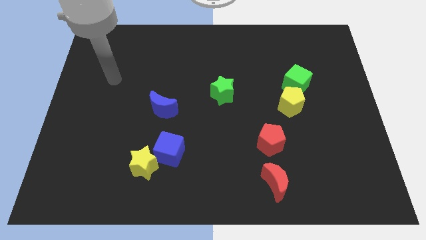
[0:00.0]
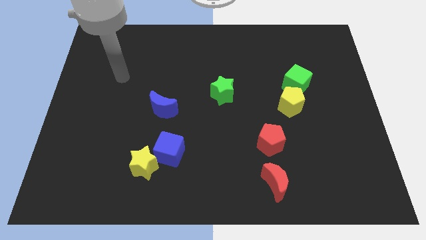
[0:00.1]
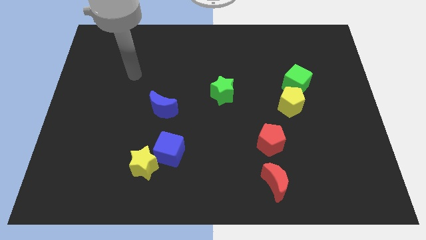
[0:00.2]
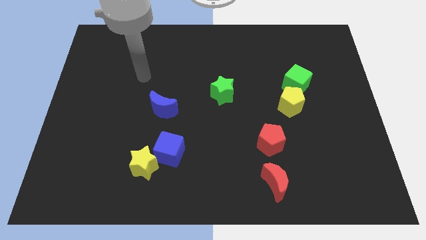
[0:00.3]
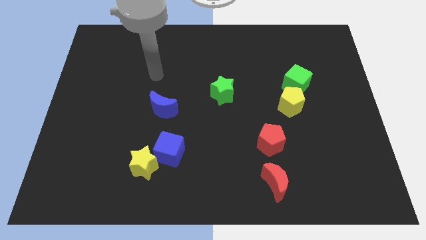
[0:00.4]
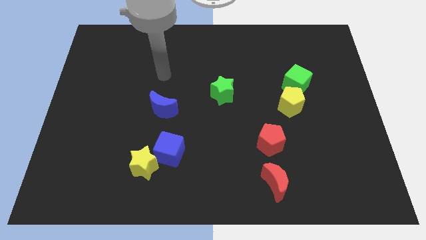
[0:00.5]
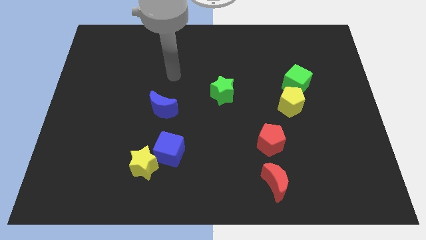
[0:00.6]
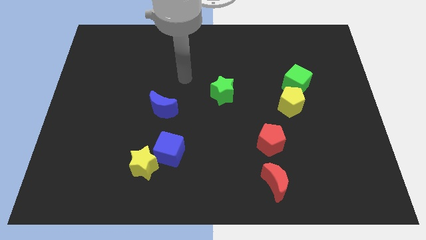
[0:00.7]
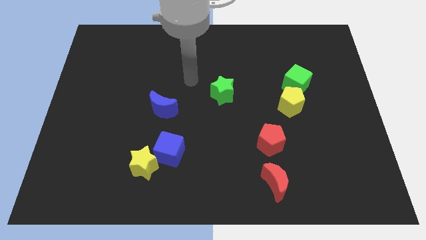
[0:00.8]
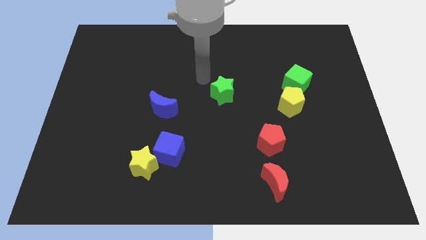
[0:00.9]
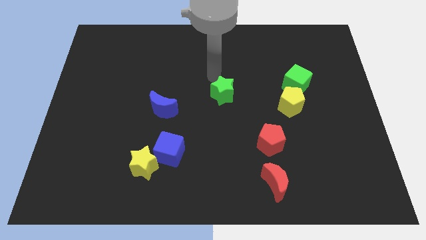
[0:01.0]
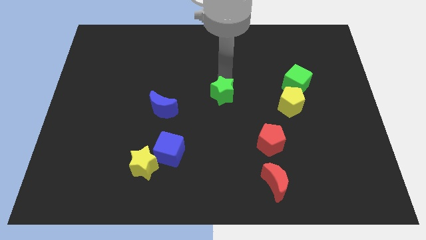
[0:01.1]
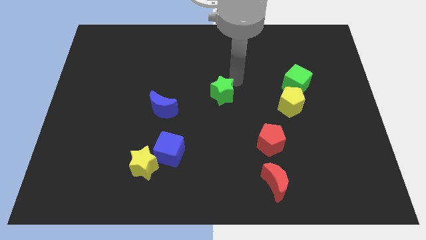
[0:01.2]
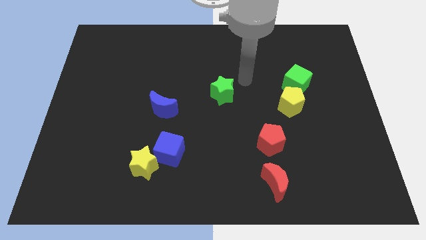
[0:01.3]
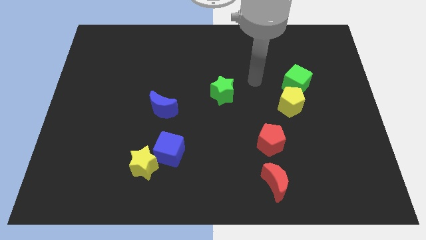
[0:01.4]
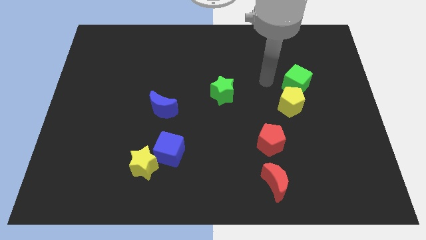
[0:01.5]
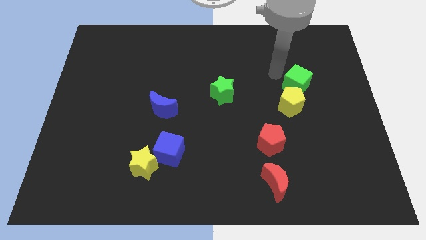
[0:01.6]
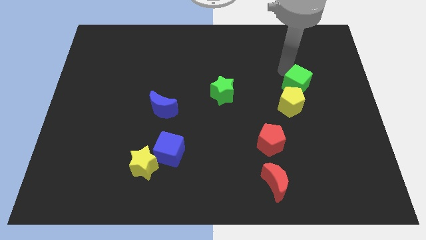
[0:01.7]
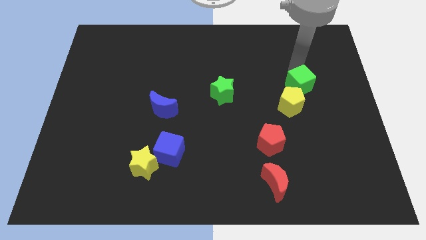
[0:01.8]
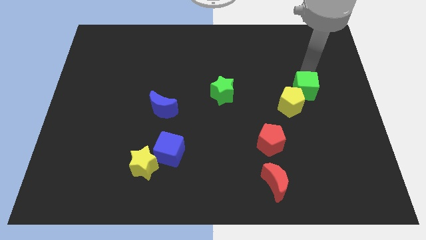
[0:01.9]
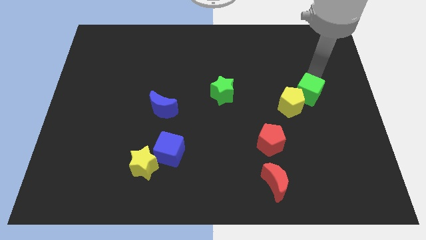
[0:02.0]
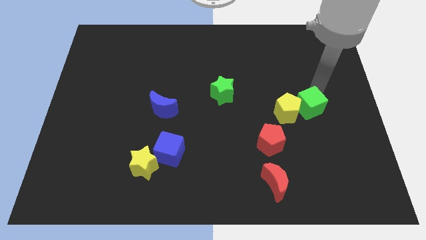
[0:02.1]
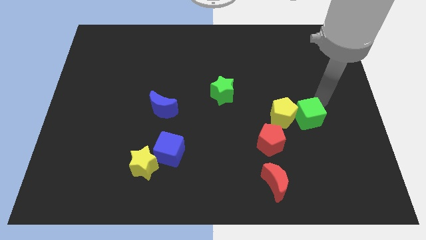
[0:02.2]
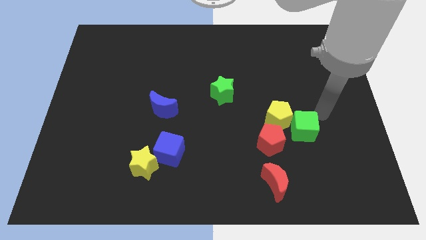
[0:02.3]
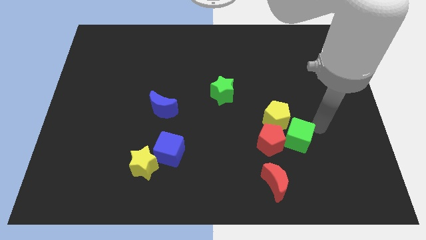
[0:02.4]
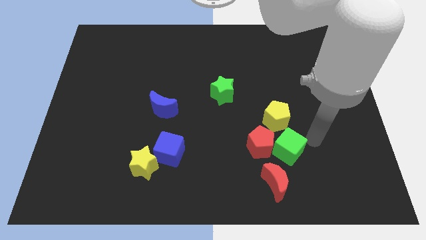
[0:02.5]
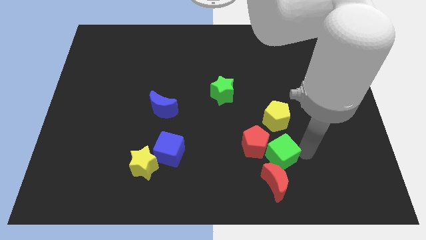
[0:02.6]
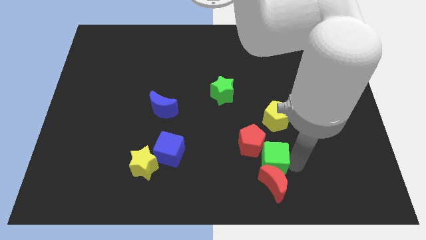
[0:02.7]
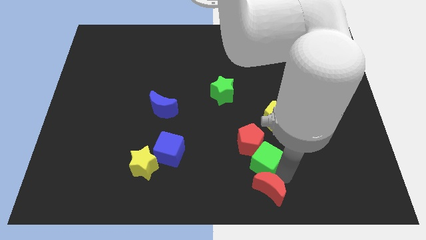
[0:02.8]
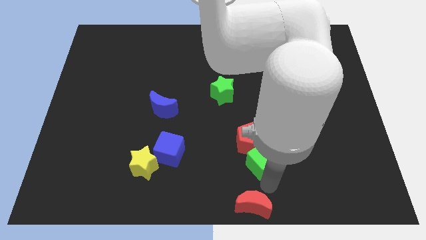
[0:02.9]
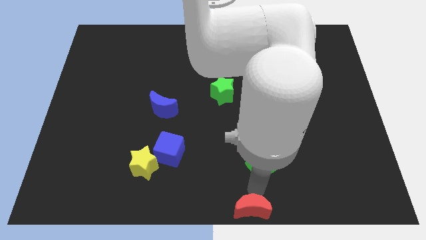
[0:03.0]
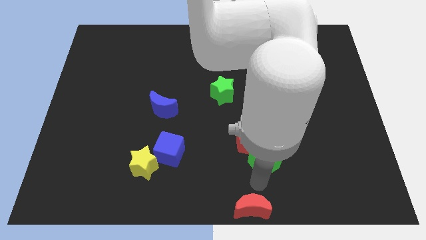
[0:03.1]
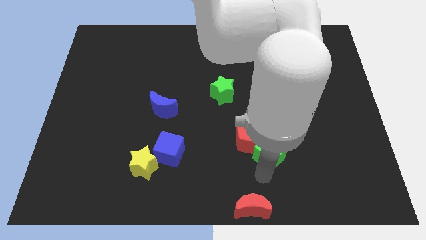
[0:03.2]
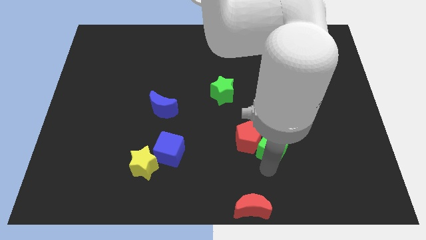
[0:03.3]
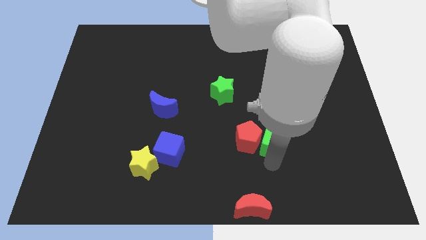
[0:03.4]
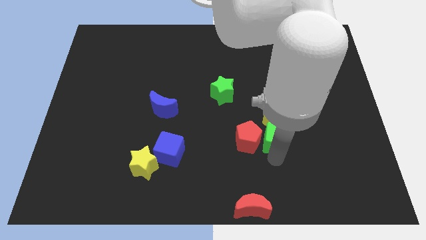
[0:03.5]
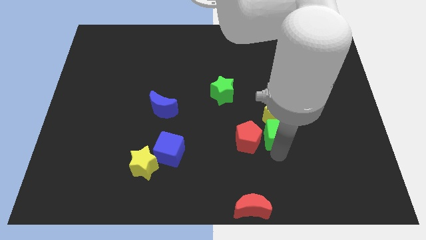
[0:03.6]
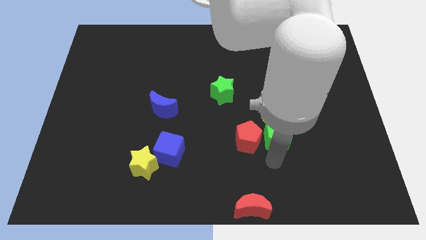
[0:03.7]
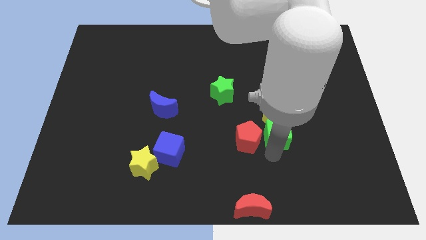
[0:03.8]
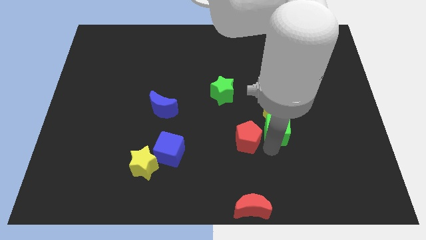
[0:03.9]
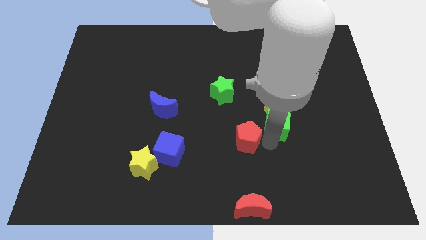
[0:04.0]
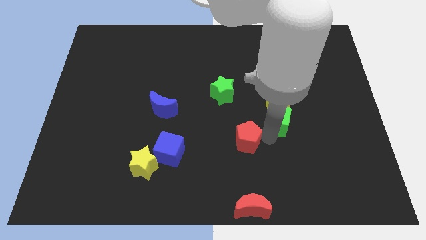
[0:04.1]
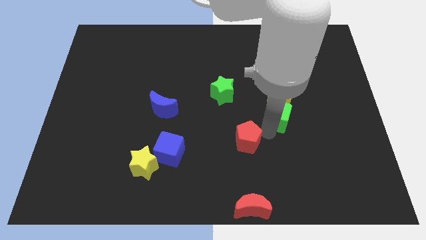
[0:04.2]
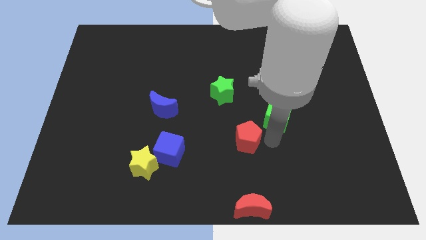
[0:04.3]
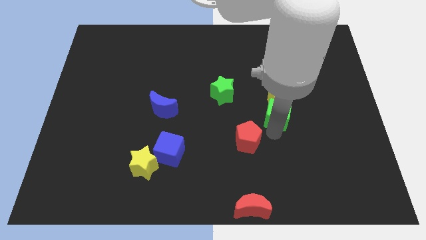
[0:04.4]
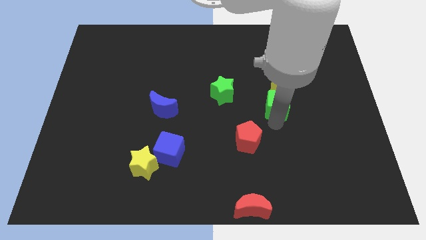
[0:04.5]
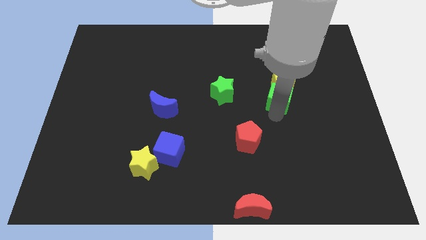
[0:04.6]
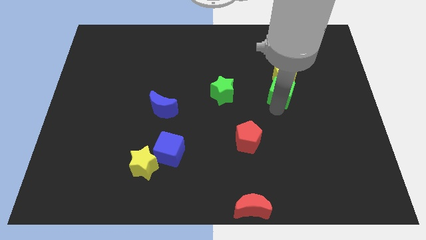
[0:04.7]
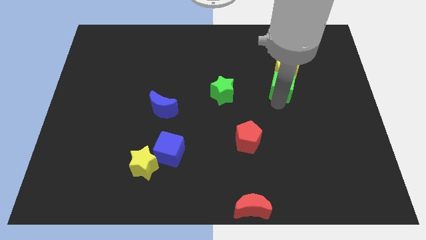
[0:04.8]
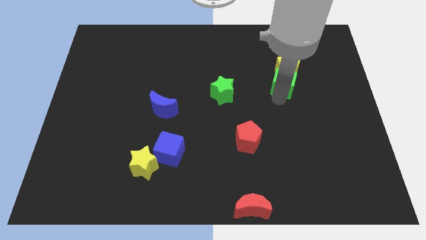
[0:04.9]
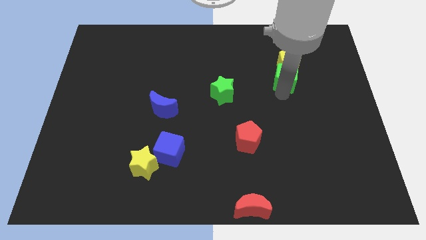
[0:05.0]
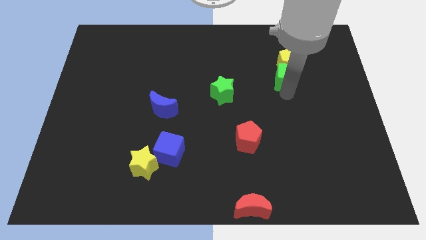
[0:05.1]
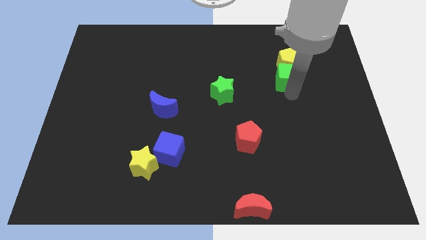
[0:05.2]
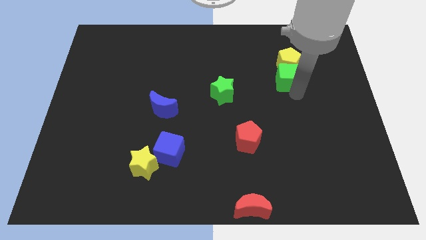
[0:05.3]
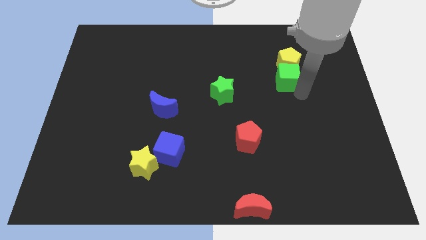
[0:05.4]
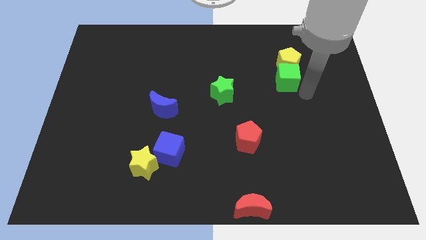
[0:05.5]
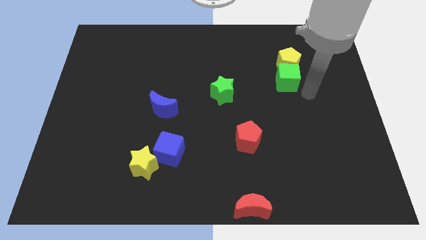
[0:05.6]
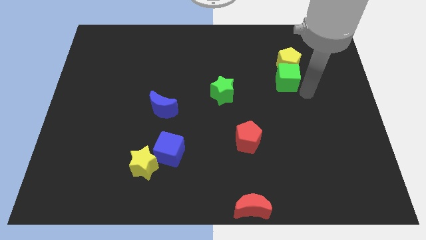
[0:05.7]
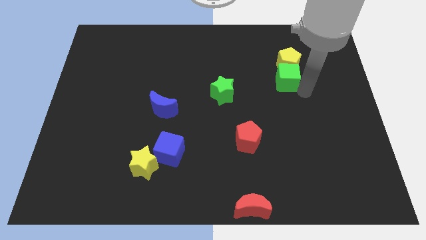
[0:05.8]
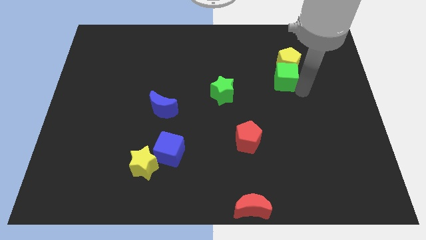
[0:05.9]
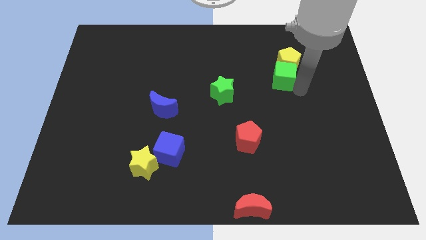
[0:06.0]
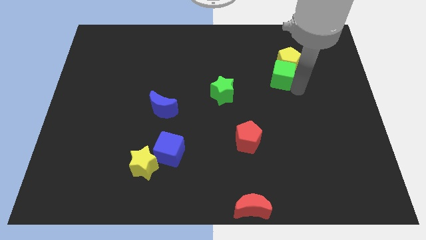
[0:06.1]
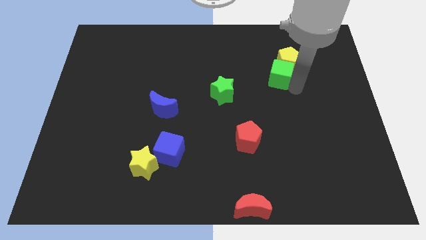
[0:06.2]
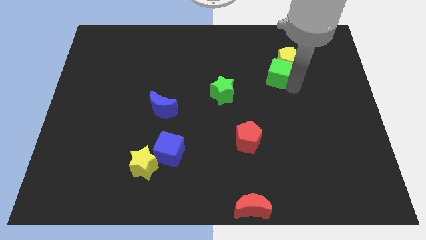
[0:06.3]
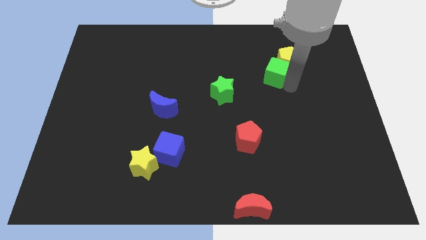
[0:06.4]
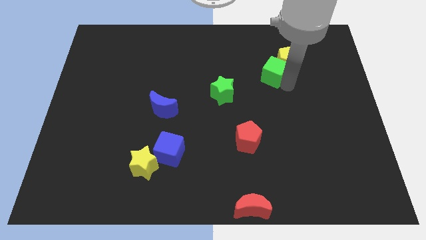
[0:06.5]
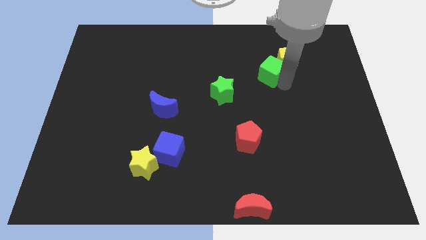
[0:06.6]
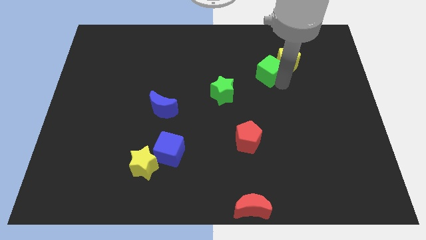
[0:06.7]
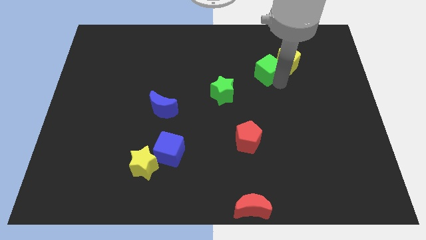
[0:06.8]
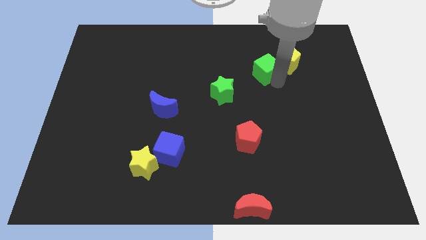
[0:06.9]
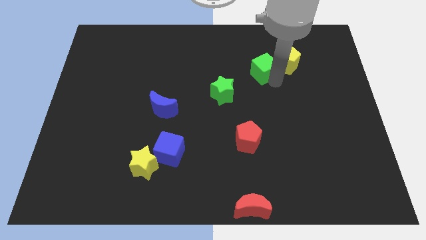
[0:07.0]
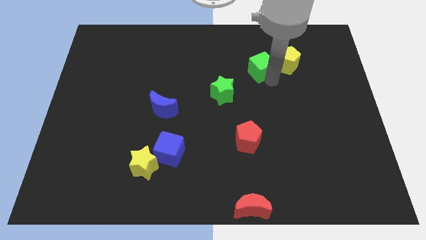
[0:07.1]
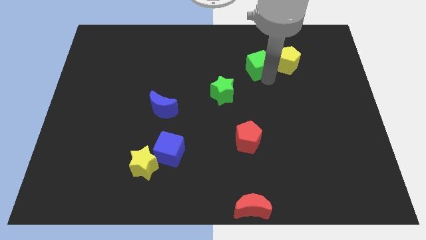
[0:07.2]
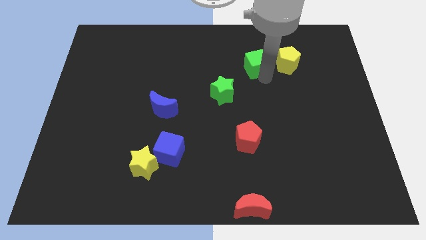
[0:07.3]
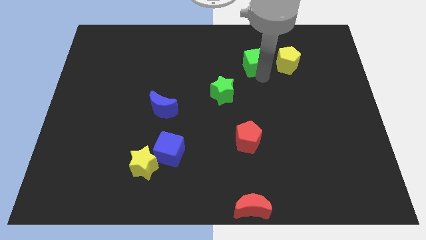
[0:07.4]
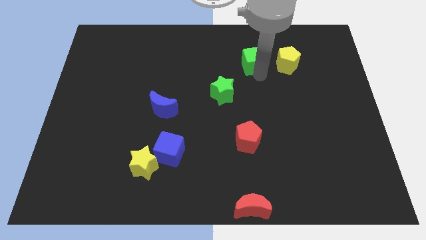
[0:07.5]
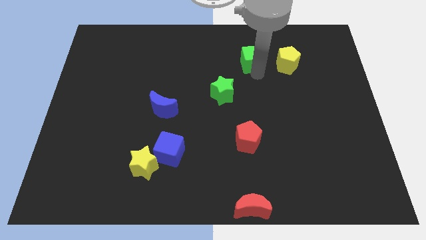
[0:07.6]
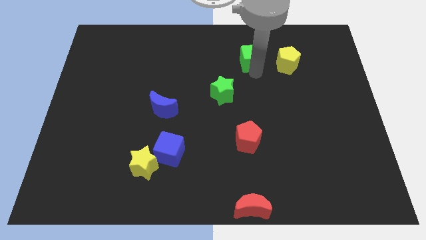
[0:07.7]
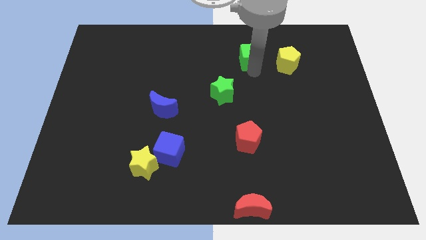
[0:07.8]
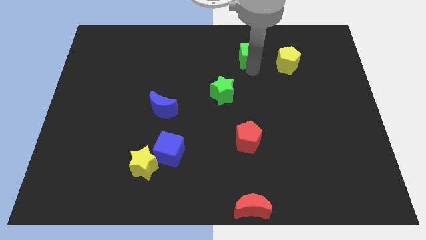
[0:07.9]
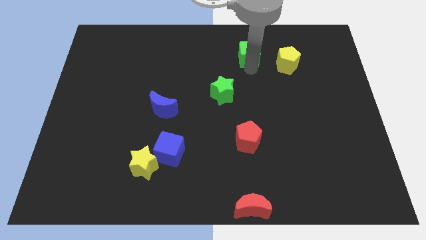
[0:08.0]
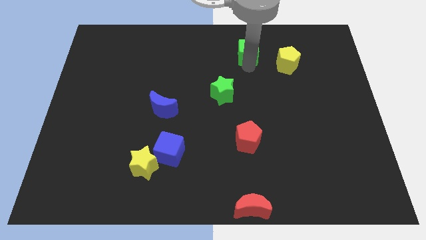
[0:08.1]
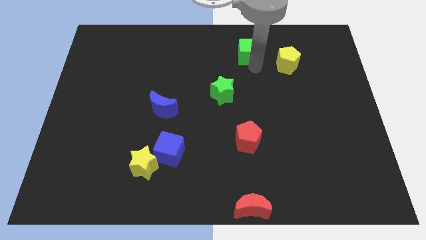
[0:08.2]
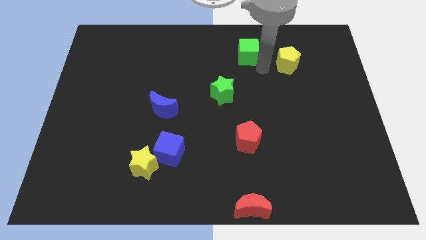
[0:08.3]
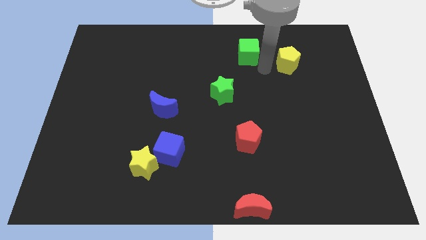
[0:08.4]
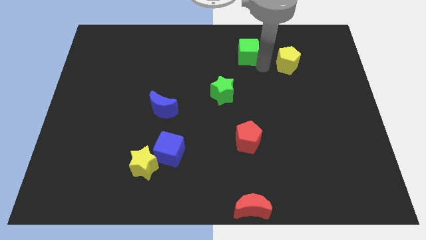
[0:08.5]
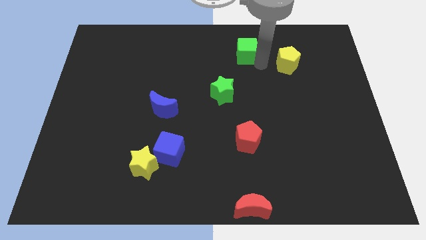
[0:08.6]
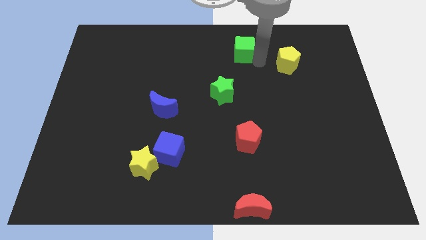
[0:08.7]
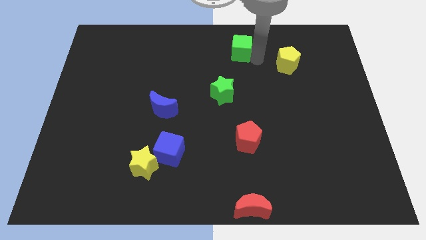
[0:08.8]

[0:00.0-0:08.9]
slide the green cube to the towards your base
